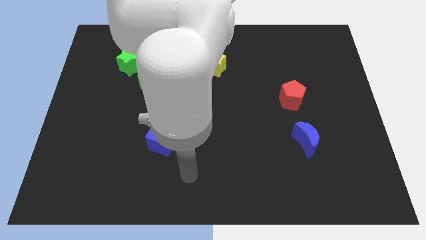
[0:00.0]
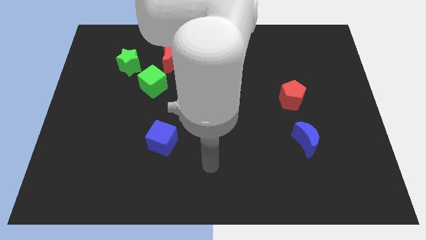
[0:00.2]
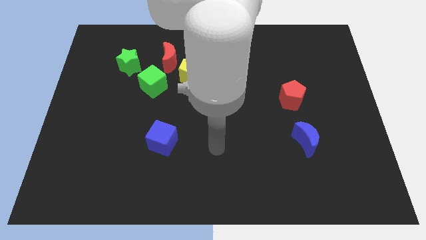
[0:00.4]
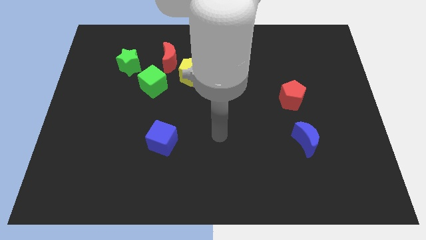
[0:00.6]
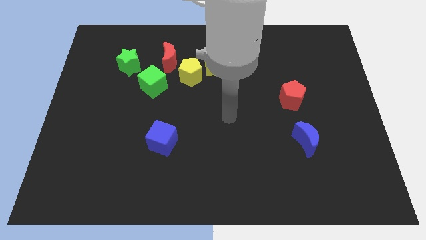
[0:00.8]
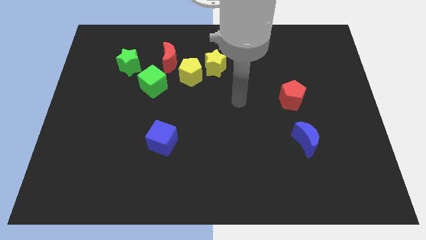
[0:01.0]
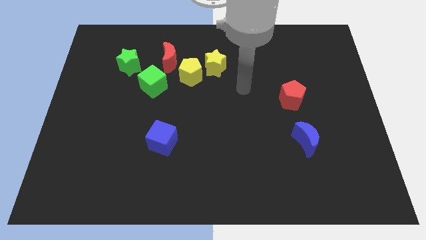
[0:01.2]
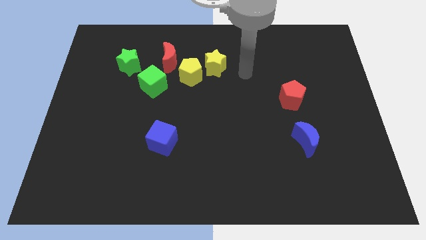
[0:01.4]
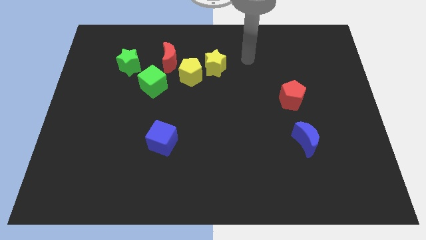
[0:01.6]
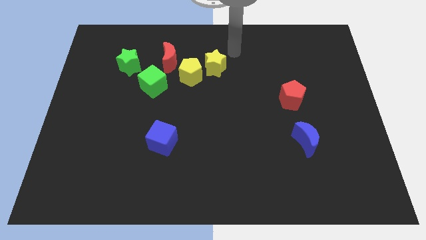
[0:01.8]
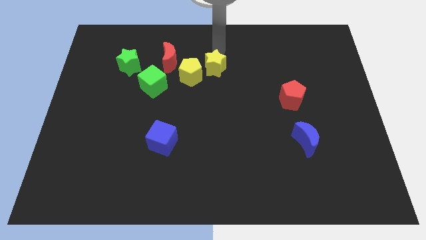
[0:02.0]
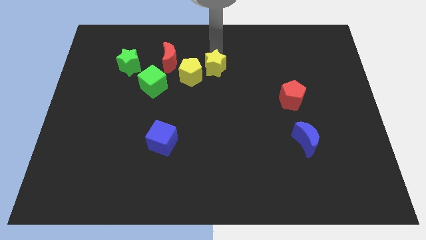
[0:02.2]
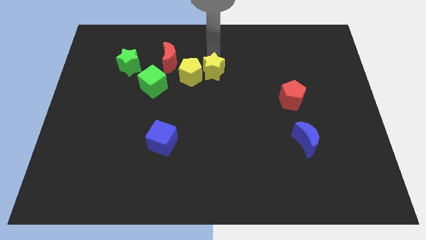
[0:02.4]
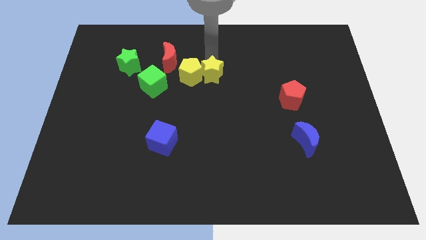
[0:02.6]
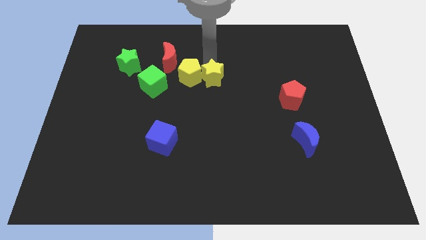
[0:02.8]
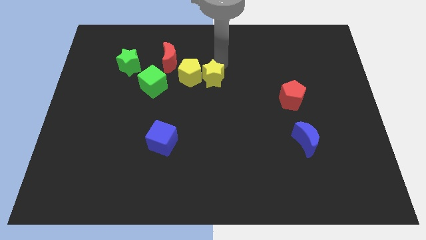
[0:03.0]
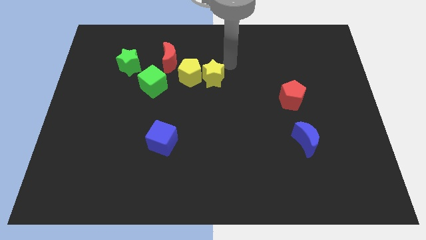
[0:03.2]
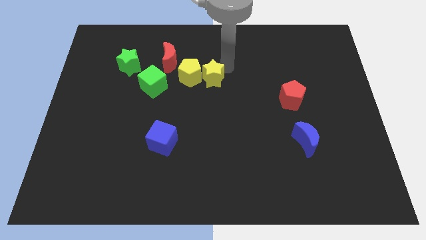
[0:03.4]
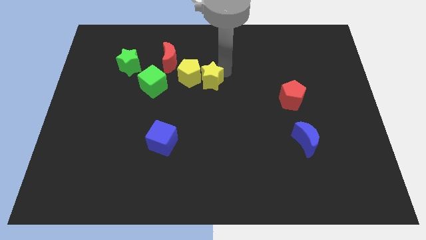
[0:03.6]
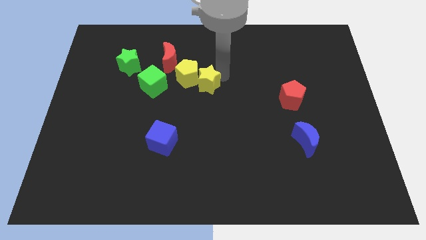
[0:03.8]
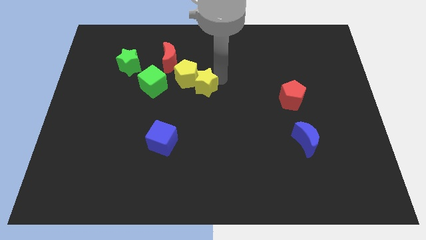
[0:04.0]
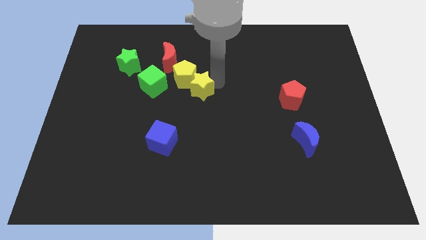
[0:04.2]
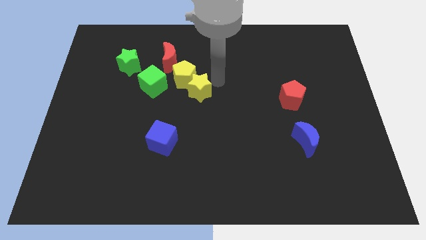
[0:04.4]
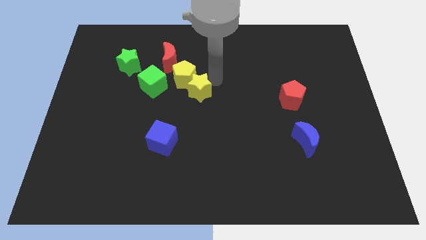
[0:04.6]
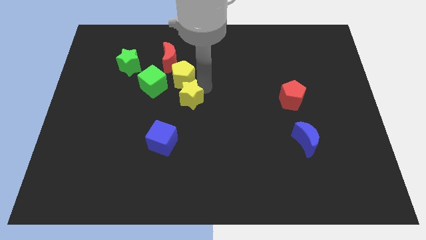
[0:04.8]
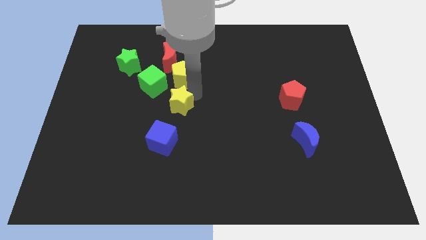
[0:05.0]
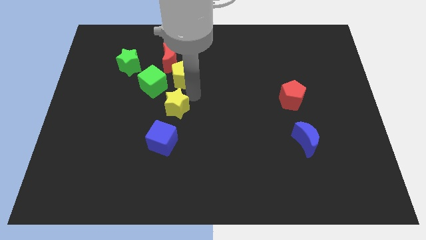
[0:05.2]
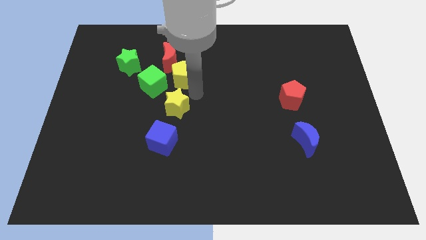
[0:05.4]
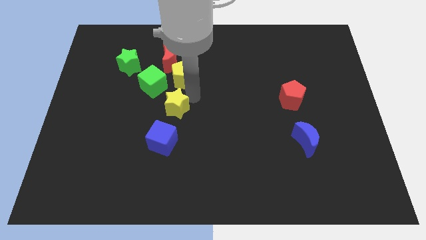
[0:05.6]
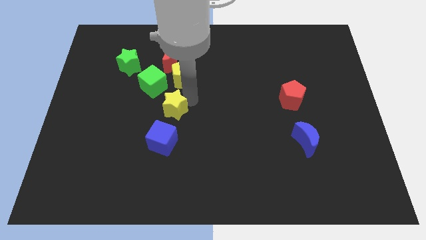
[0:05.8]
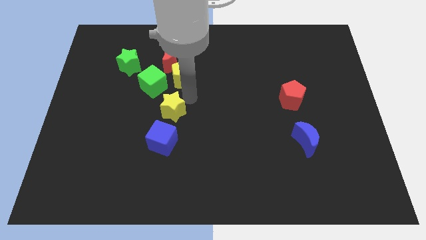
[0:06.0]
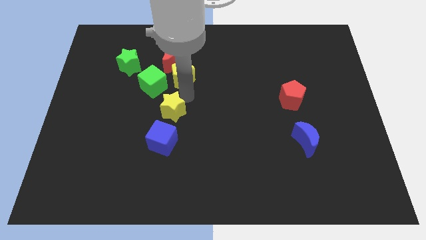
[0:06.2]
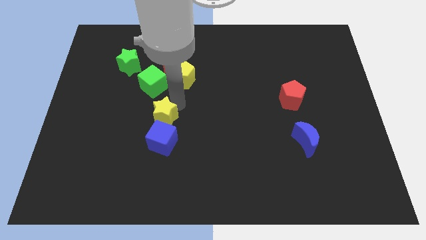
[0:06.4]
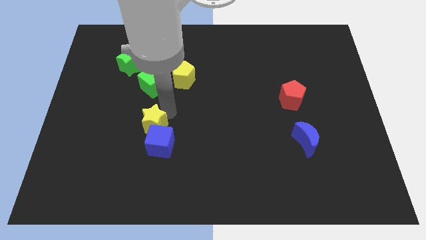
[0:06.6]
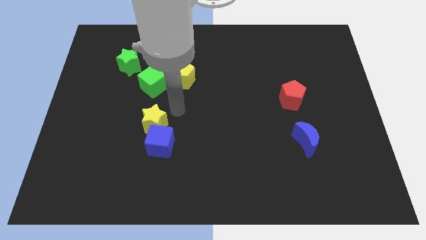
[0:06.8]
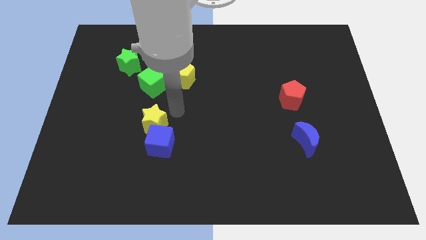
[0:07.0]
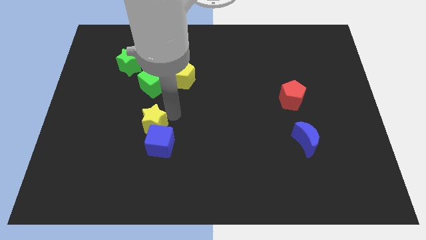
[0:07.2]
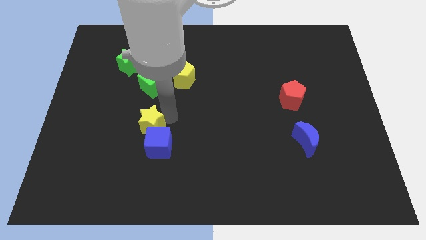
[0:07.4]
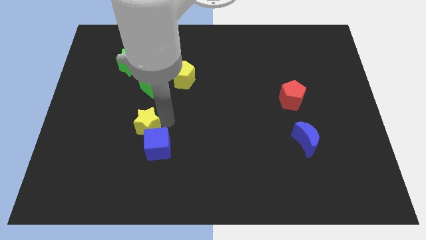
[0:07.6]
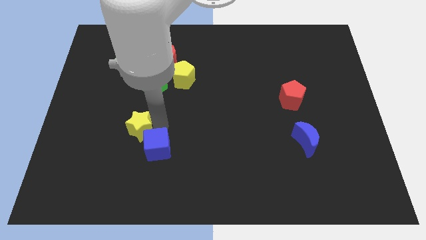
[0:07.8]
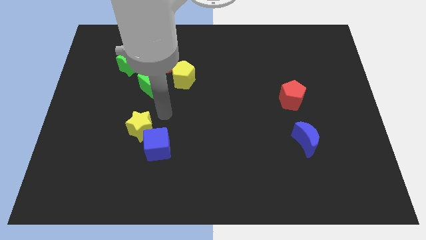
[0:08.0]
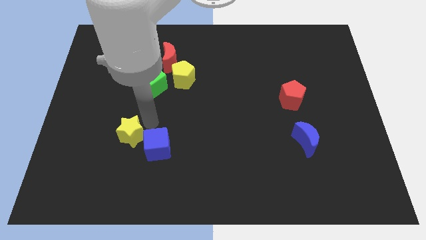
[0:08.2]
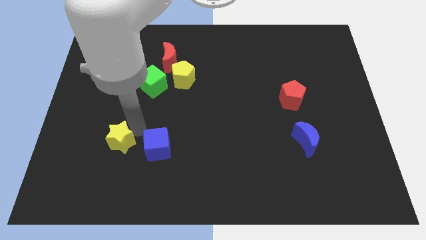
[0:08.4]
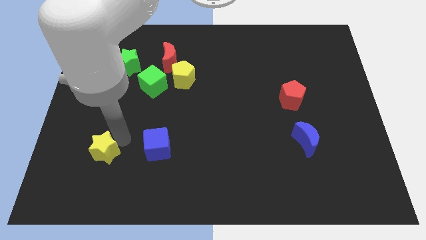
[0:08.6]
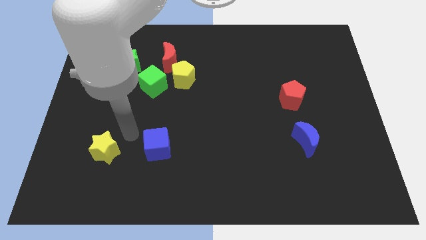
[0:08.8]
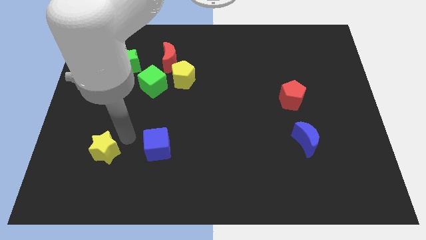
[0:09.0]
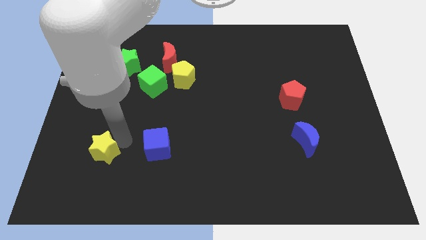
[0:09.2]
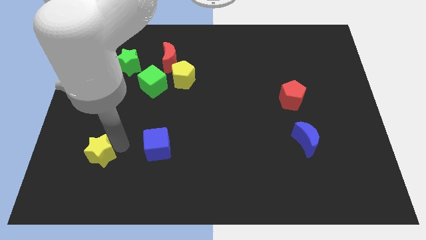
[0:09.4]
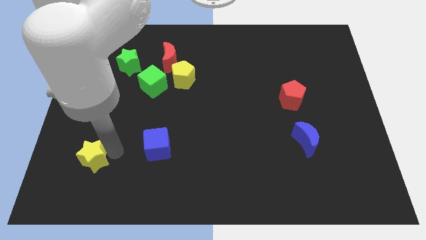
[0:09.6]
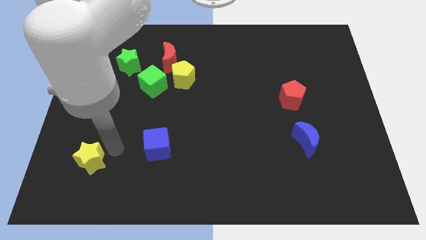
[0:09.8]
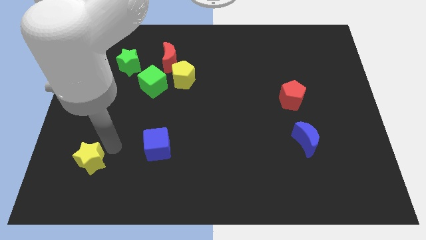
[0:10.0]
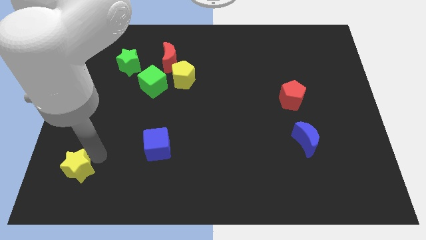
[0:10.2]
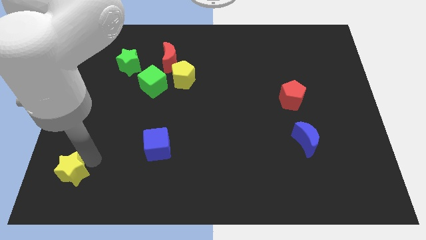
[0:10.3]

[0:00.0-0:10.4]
push the yellow star to the lower left corner

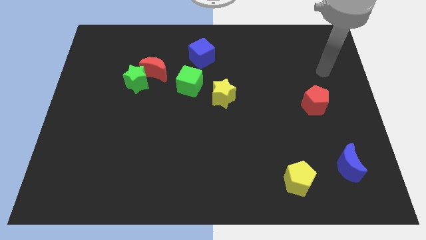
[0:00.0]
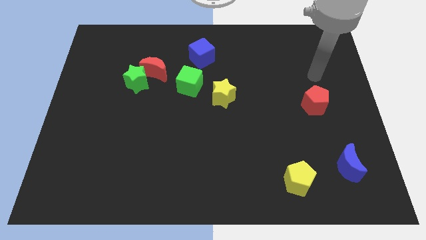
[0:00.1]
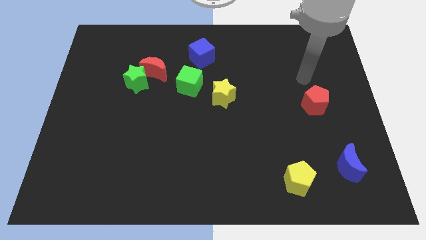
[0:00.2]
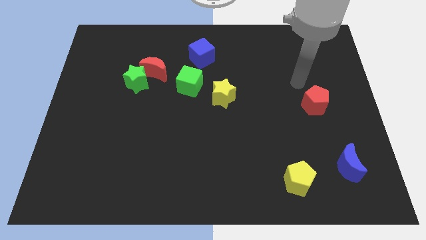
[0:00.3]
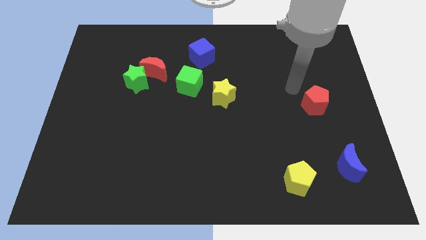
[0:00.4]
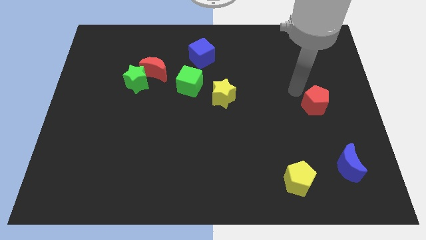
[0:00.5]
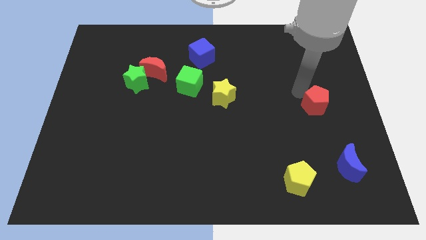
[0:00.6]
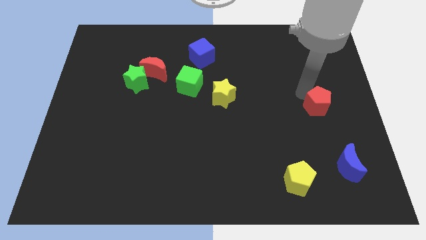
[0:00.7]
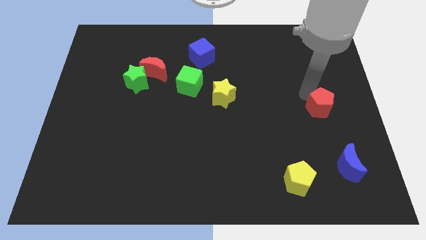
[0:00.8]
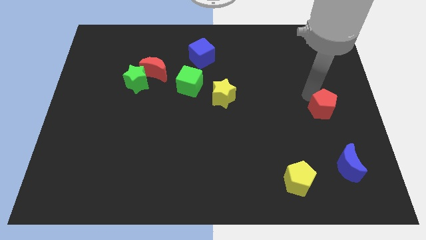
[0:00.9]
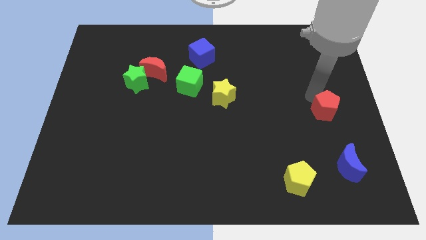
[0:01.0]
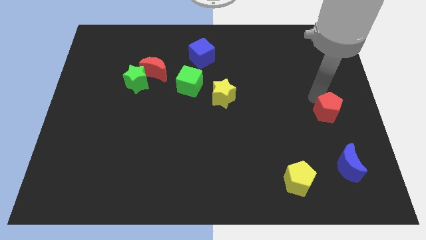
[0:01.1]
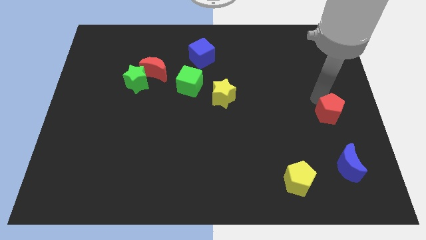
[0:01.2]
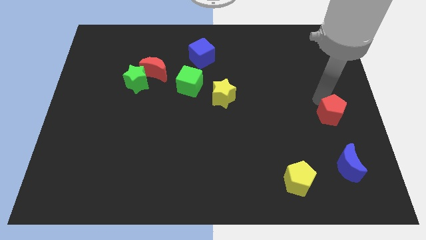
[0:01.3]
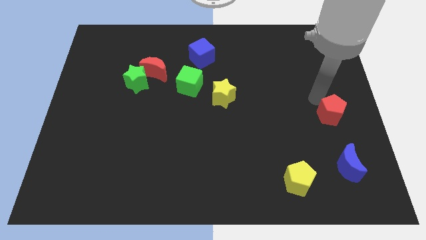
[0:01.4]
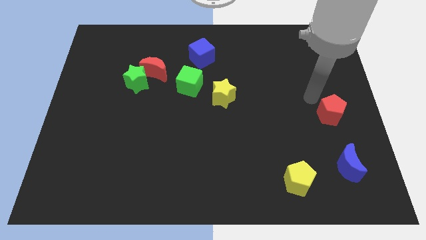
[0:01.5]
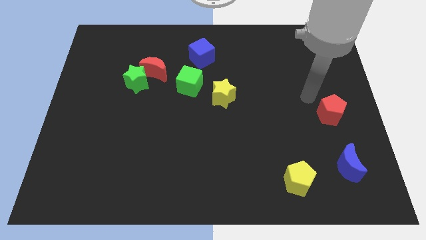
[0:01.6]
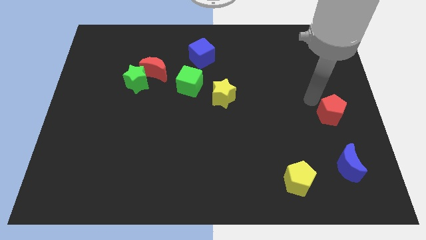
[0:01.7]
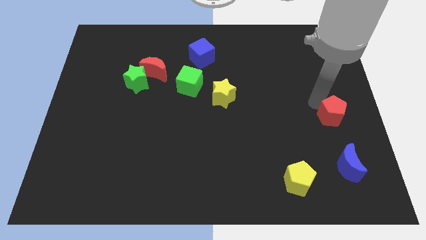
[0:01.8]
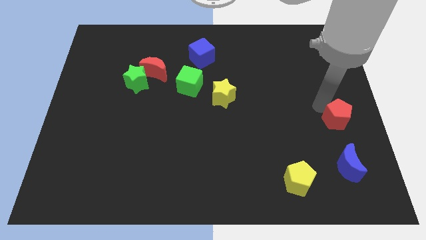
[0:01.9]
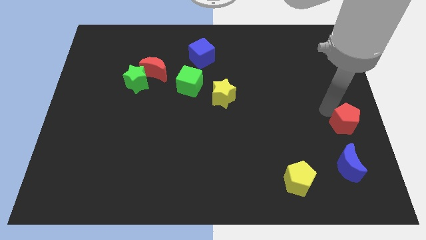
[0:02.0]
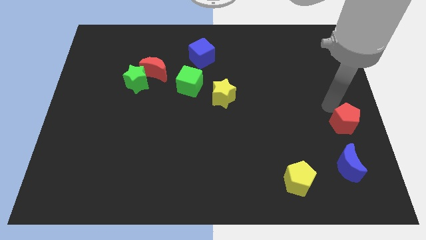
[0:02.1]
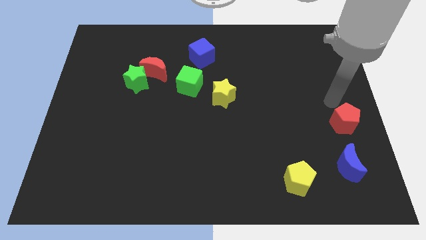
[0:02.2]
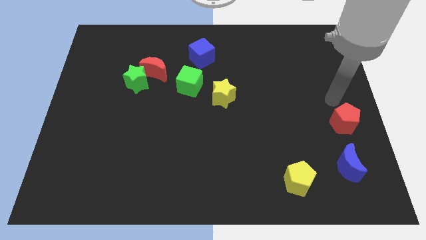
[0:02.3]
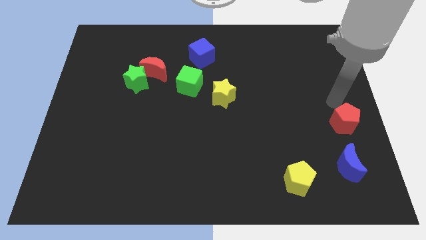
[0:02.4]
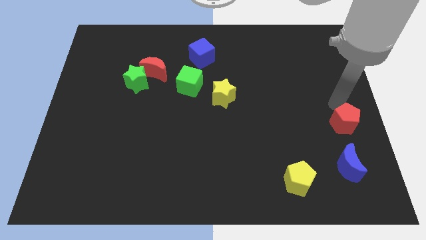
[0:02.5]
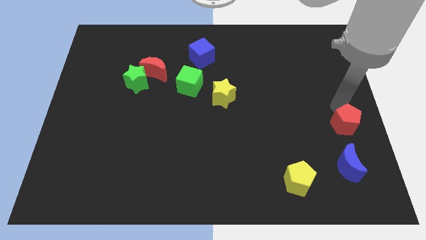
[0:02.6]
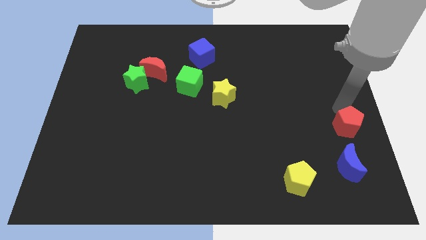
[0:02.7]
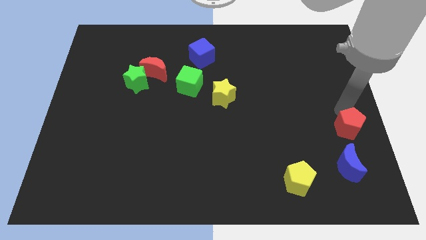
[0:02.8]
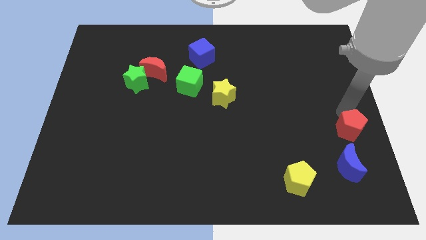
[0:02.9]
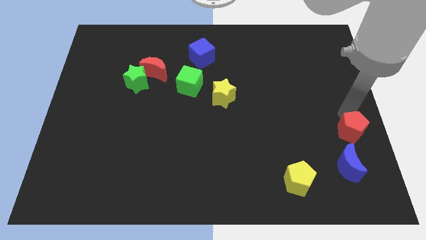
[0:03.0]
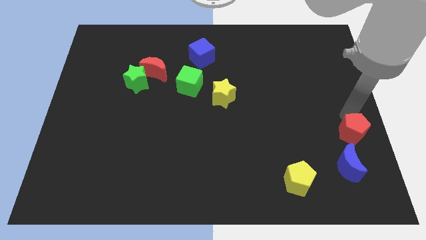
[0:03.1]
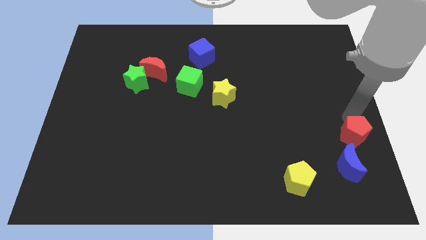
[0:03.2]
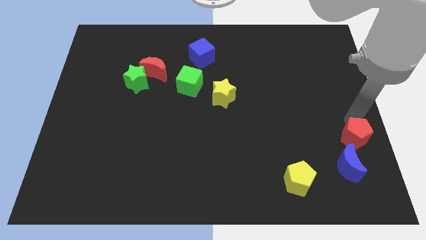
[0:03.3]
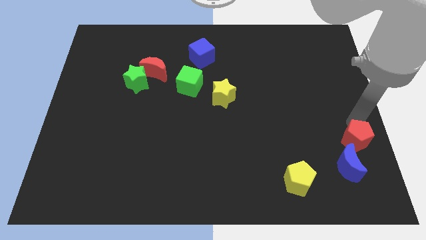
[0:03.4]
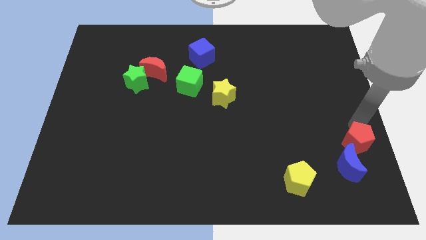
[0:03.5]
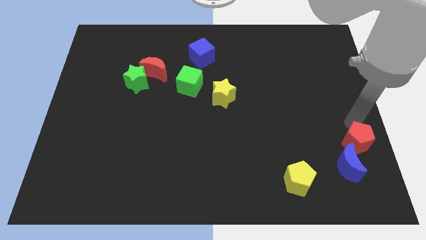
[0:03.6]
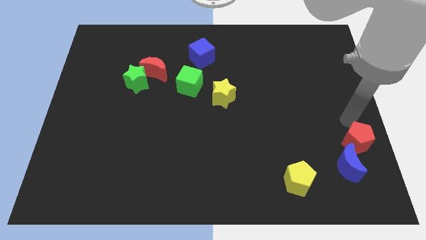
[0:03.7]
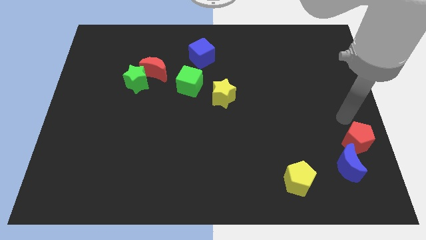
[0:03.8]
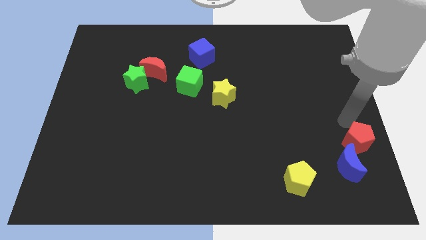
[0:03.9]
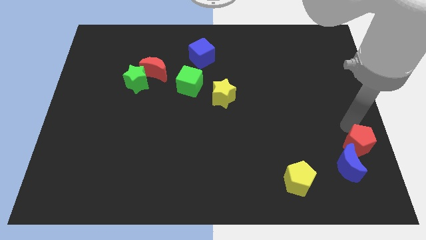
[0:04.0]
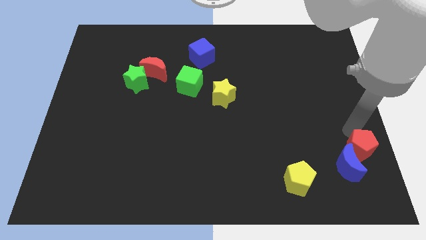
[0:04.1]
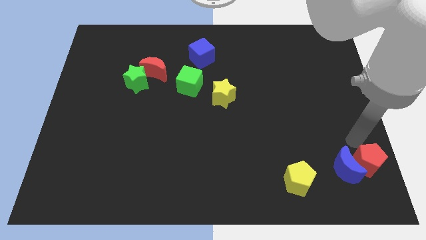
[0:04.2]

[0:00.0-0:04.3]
push the red pentagon to the bottom right
